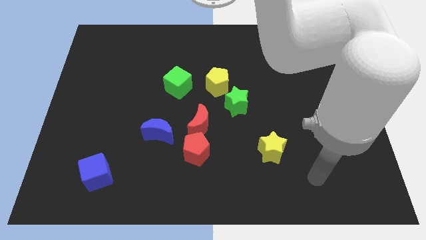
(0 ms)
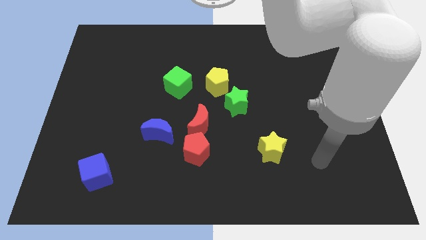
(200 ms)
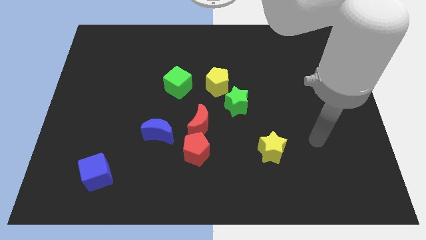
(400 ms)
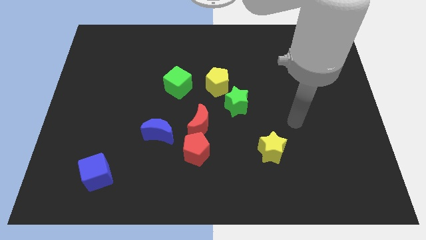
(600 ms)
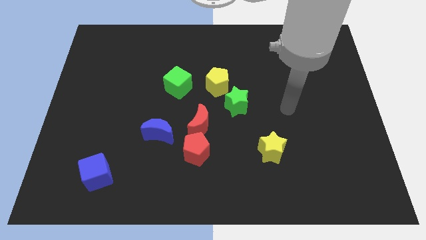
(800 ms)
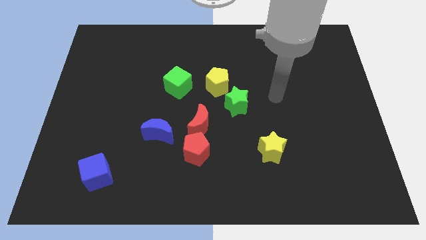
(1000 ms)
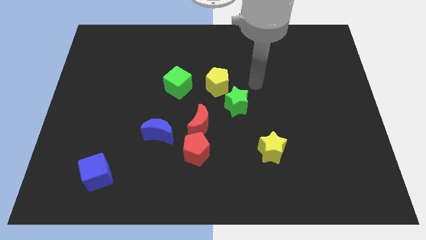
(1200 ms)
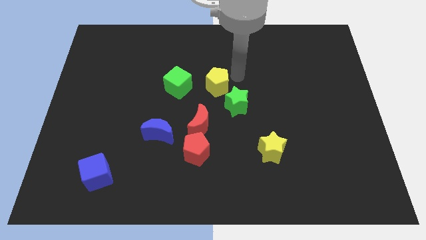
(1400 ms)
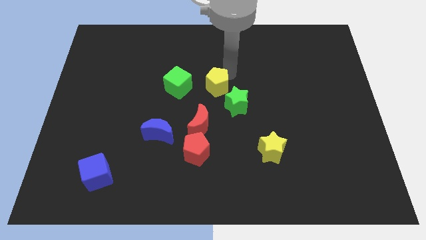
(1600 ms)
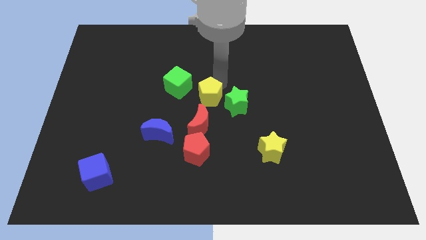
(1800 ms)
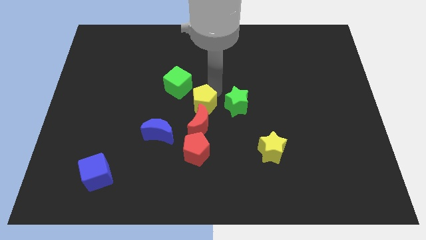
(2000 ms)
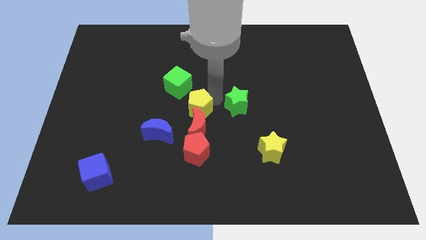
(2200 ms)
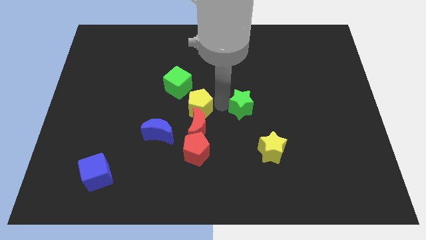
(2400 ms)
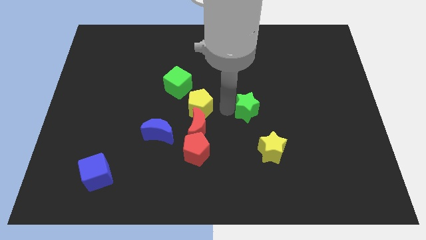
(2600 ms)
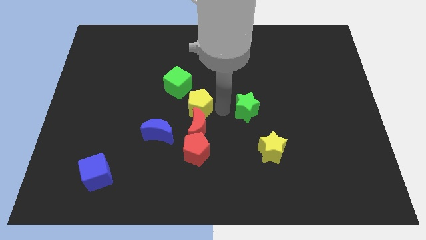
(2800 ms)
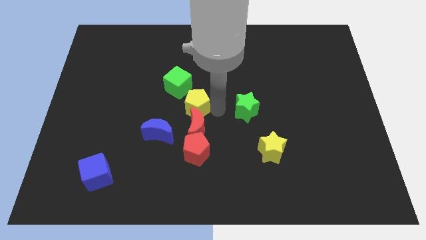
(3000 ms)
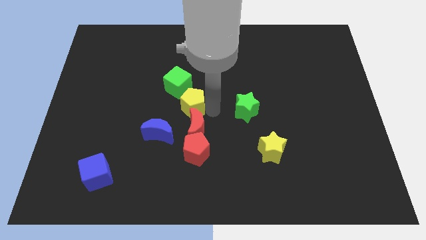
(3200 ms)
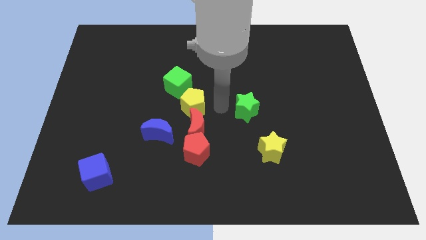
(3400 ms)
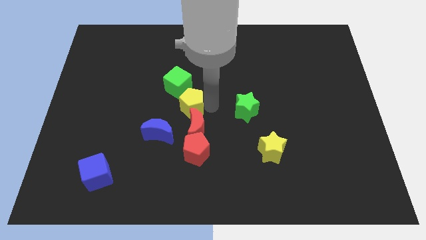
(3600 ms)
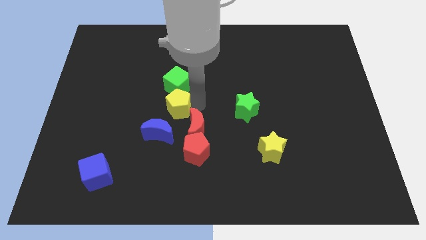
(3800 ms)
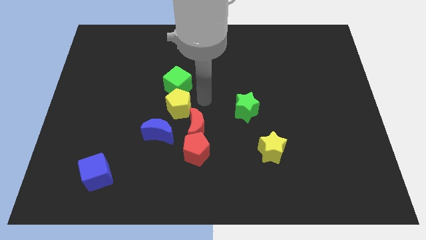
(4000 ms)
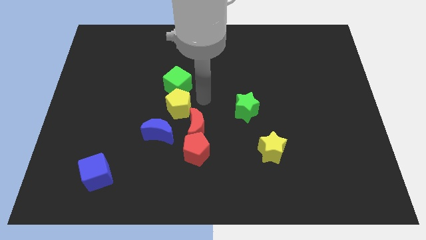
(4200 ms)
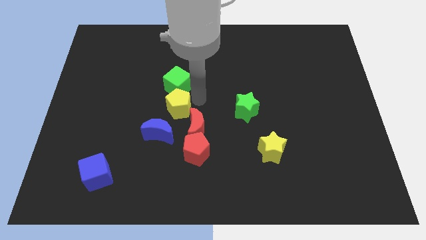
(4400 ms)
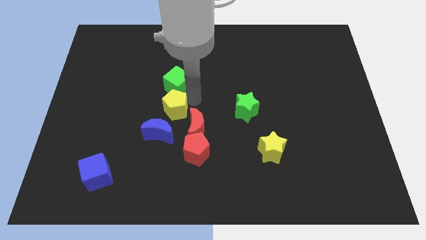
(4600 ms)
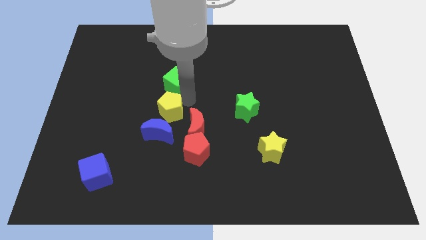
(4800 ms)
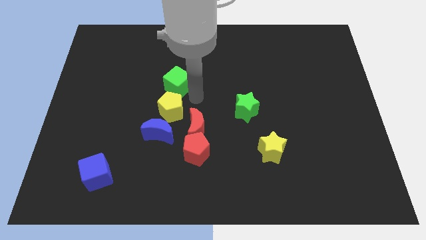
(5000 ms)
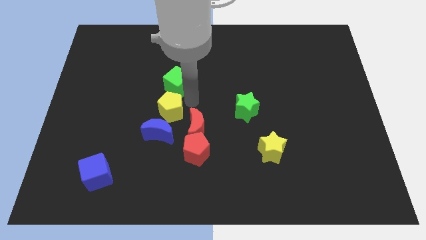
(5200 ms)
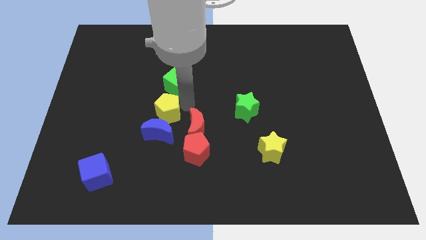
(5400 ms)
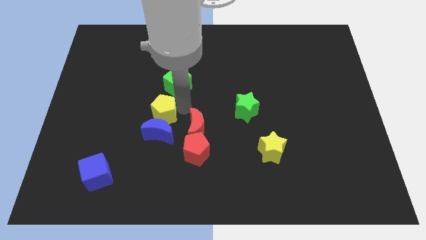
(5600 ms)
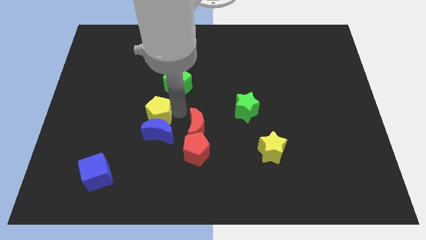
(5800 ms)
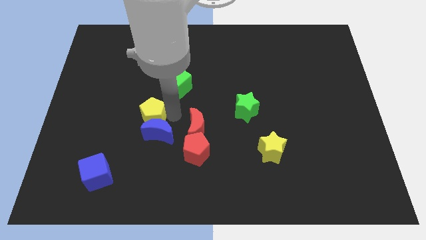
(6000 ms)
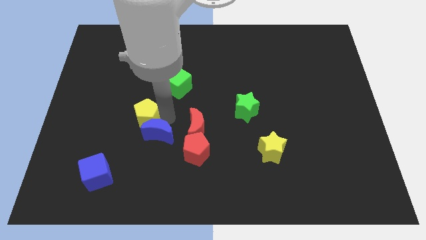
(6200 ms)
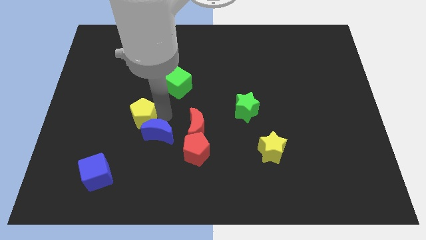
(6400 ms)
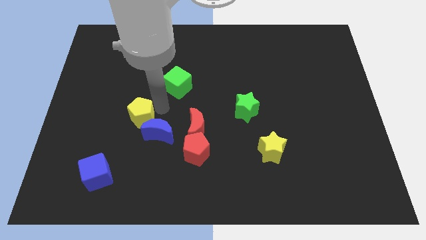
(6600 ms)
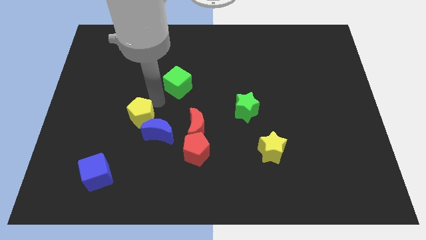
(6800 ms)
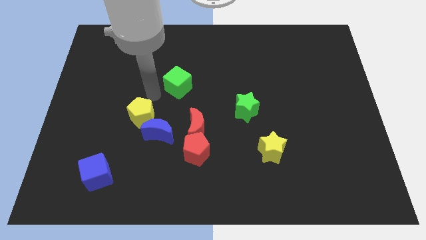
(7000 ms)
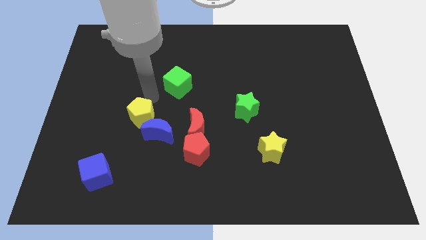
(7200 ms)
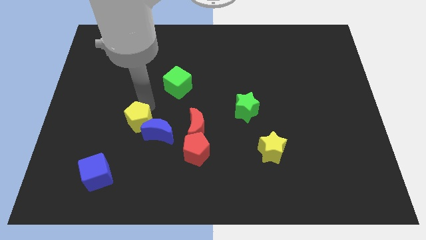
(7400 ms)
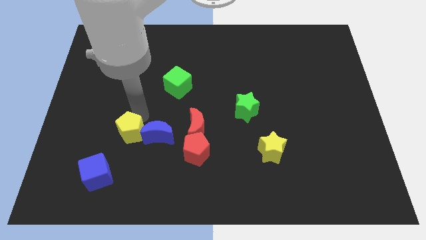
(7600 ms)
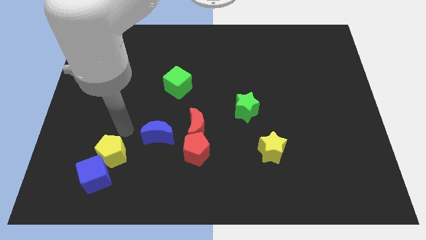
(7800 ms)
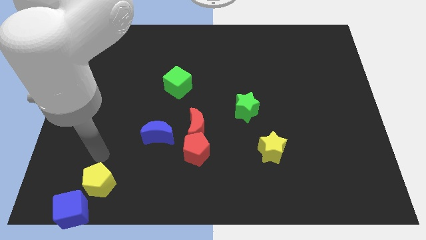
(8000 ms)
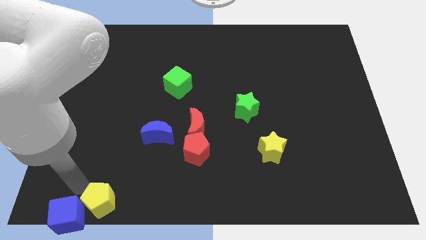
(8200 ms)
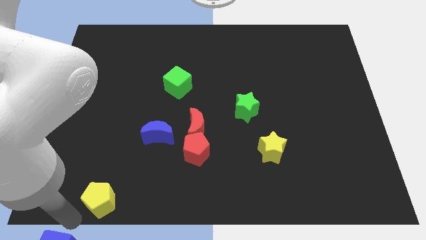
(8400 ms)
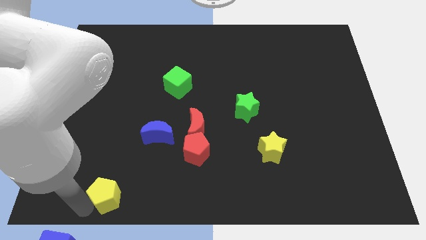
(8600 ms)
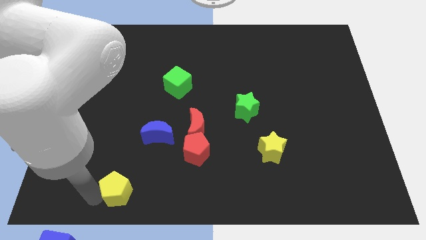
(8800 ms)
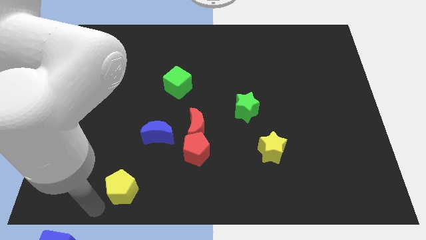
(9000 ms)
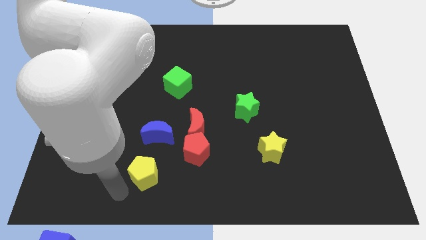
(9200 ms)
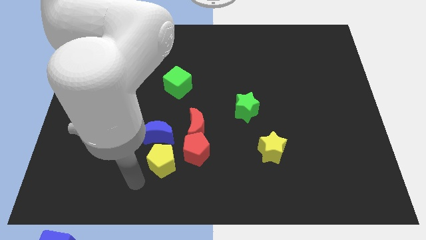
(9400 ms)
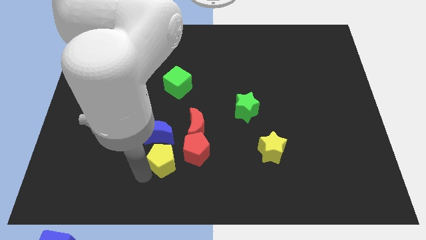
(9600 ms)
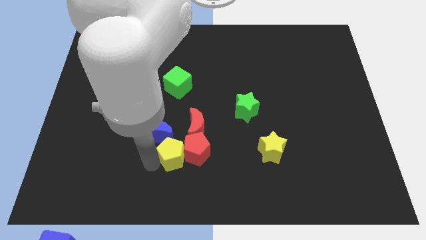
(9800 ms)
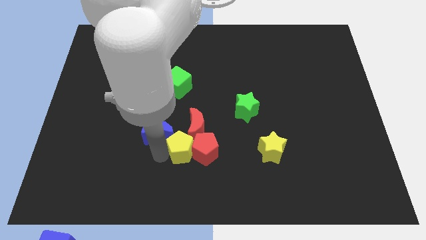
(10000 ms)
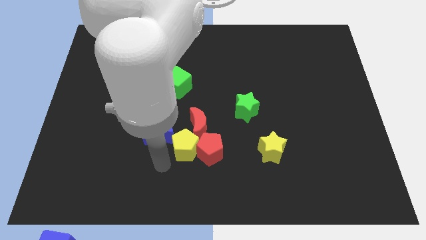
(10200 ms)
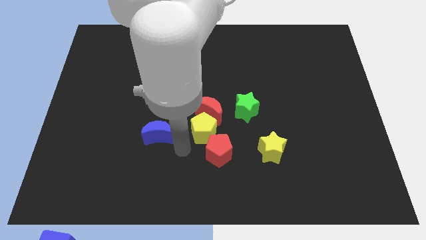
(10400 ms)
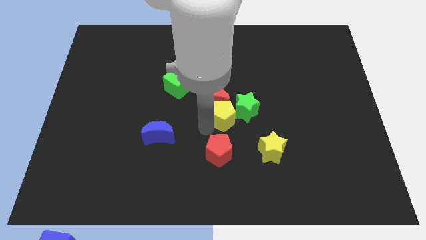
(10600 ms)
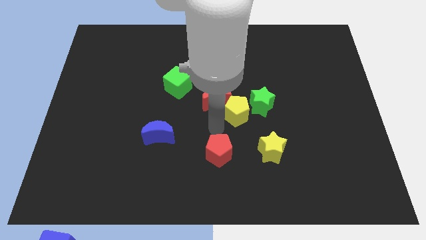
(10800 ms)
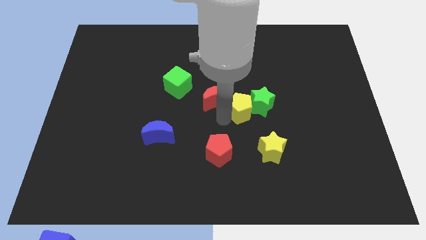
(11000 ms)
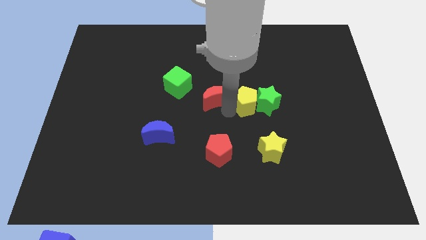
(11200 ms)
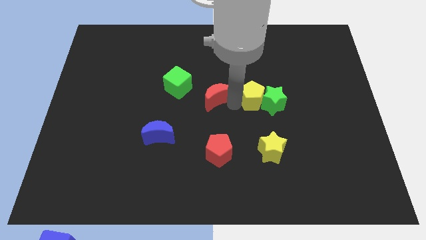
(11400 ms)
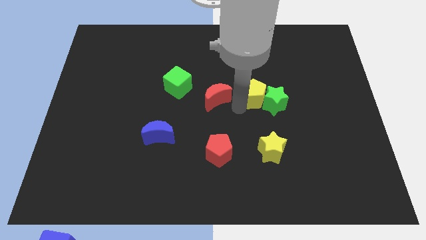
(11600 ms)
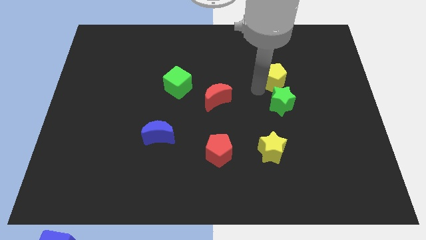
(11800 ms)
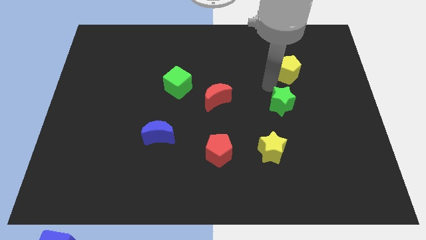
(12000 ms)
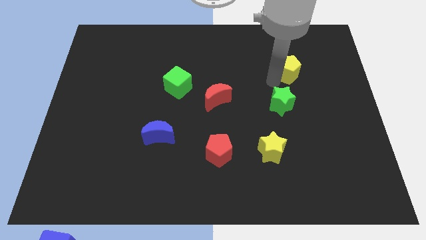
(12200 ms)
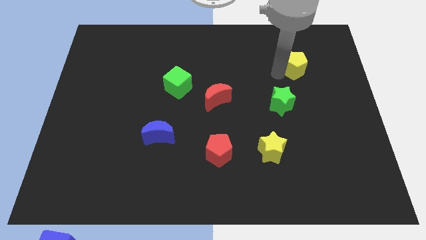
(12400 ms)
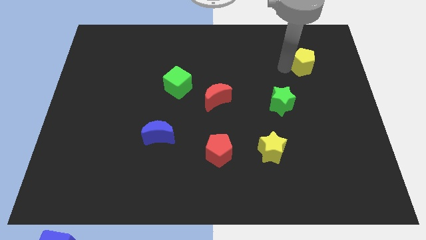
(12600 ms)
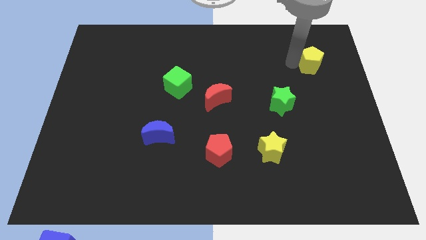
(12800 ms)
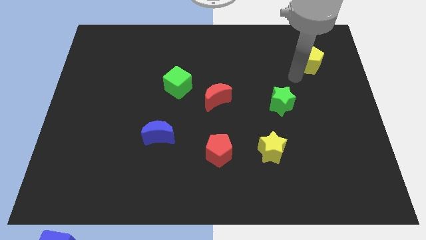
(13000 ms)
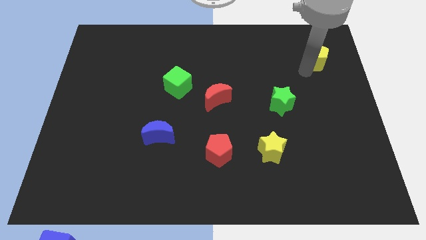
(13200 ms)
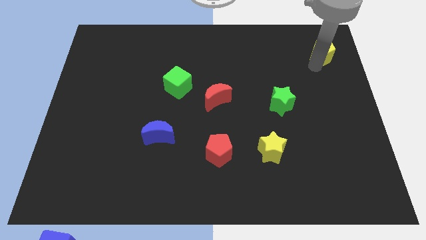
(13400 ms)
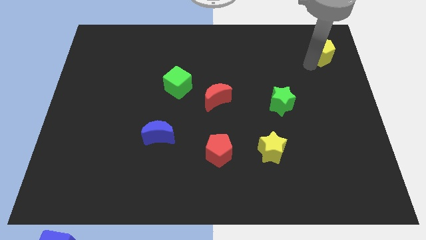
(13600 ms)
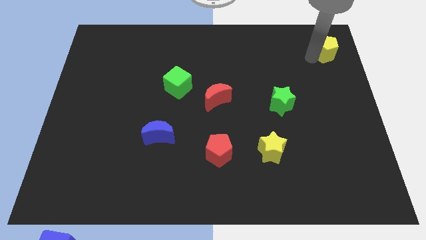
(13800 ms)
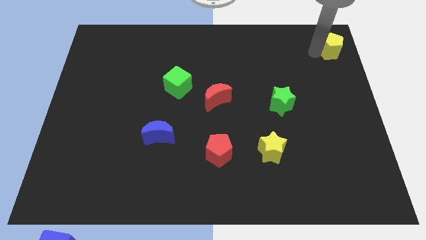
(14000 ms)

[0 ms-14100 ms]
put the yellow pentagon to the top right corner
